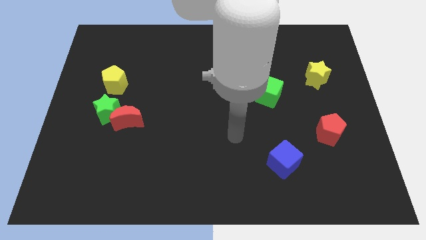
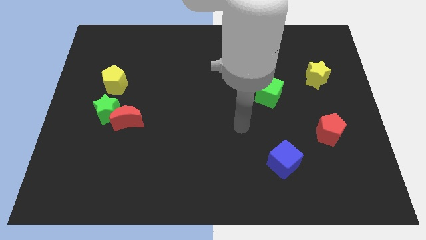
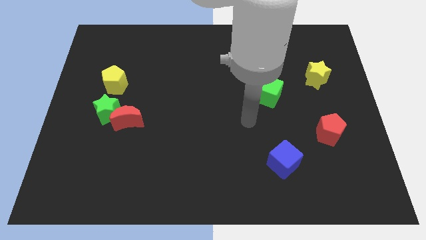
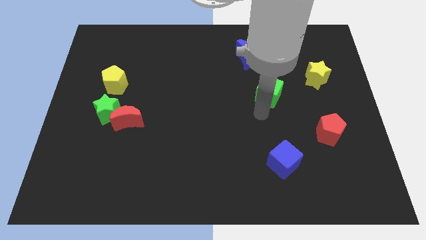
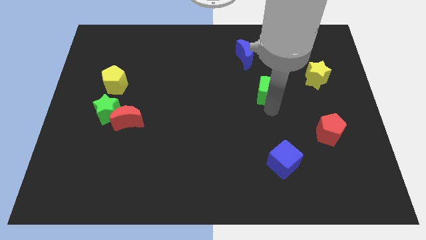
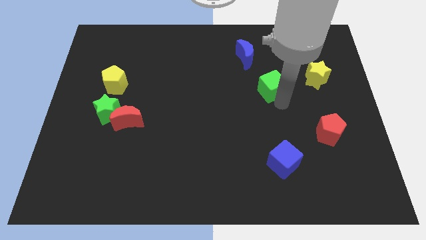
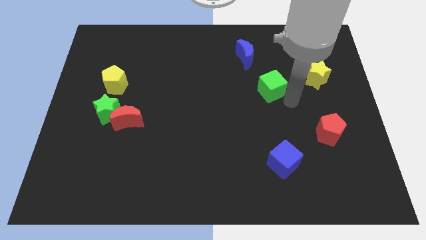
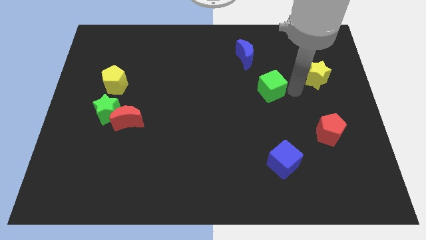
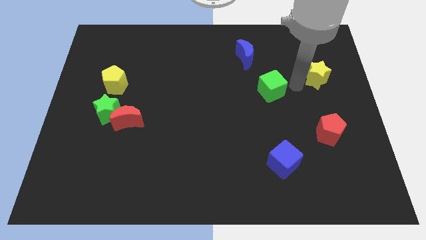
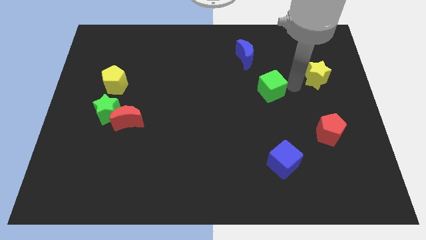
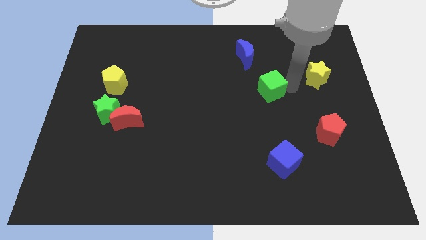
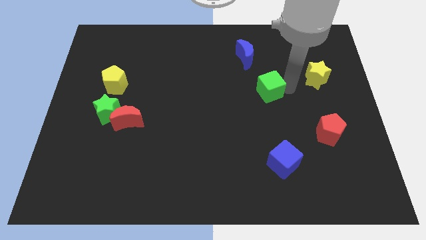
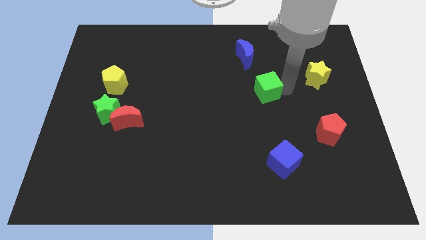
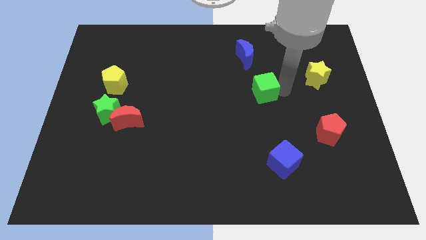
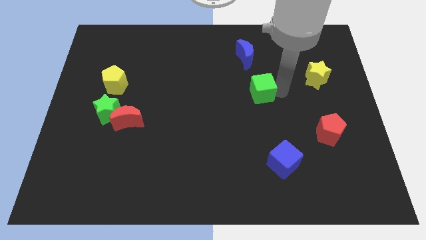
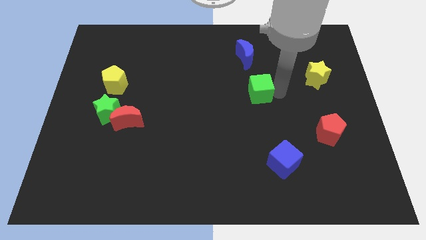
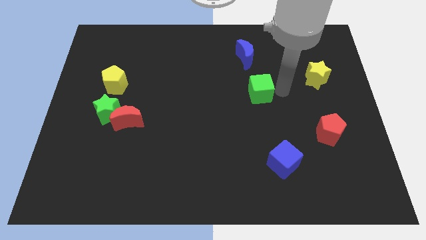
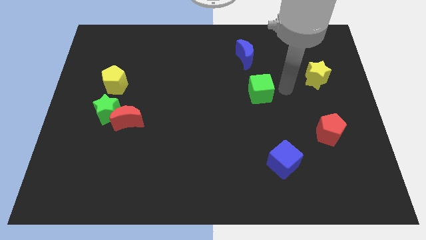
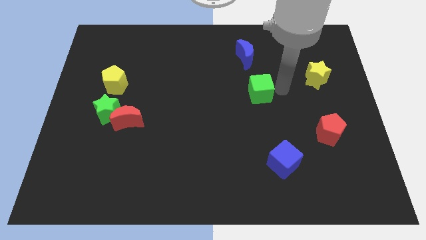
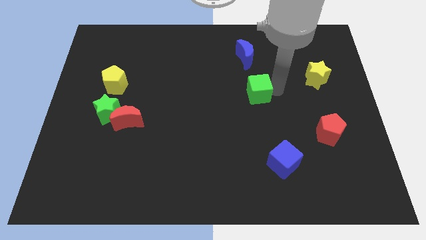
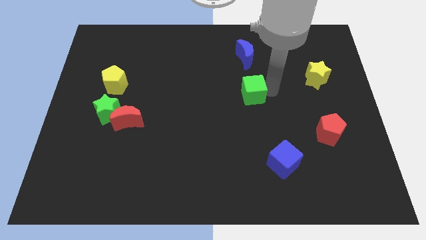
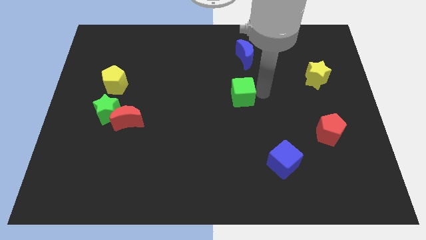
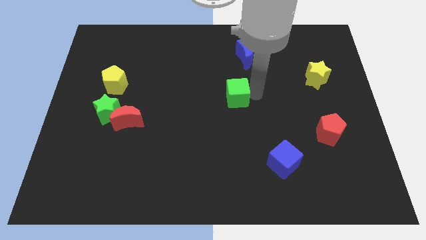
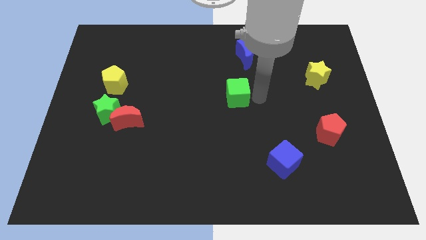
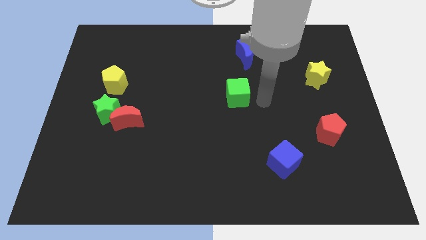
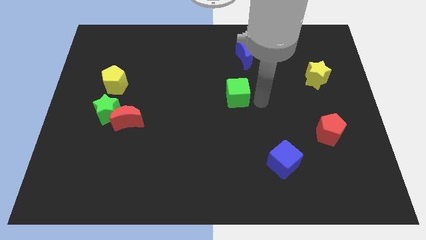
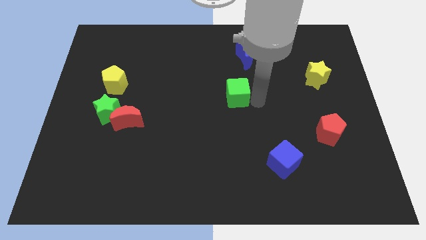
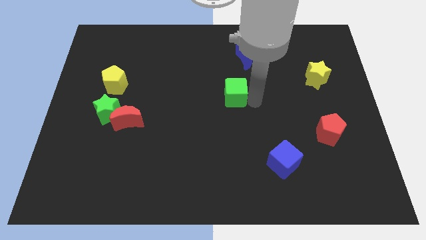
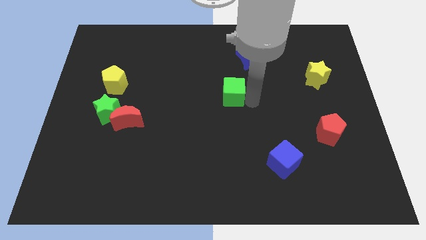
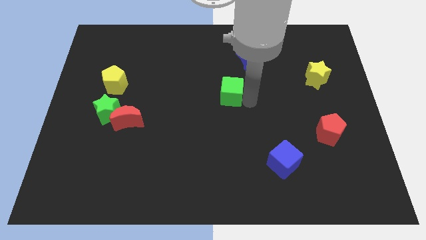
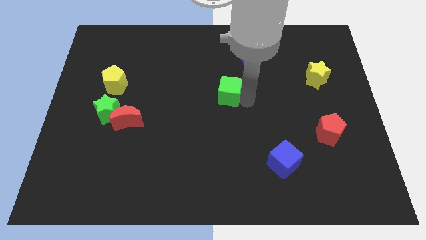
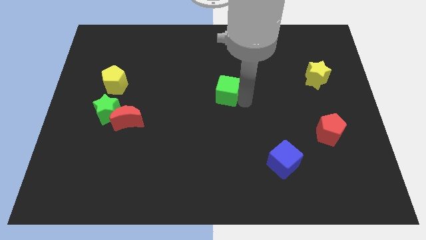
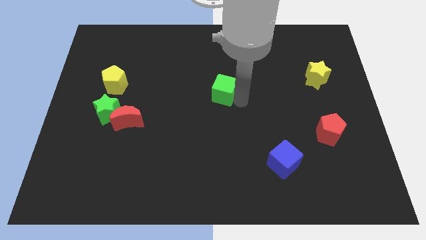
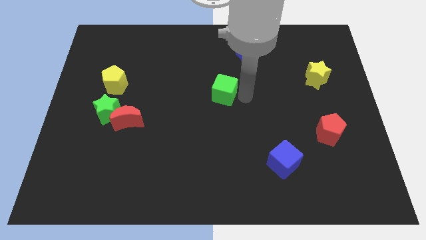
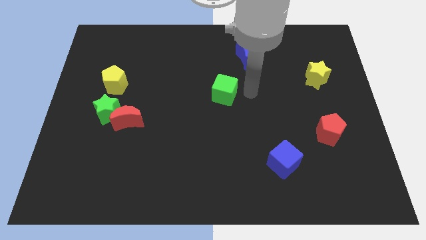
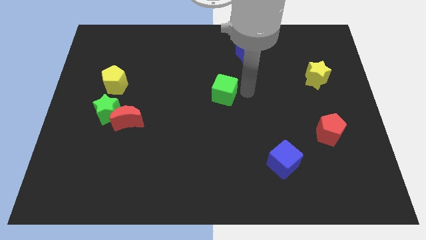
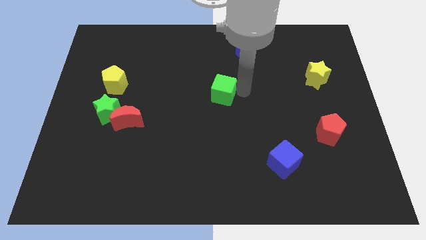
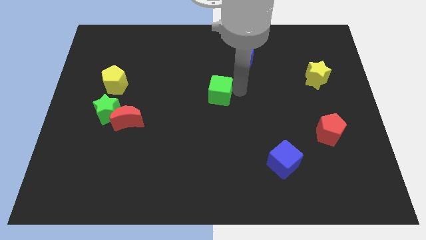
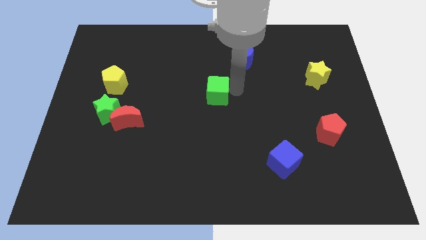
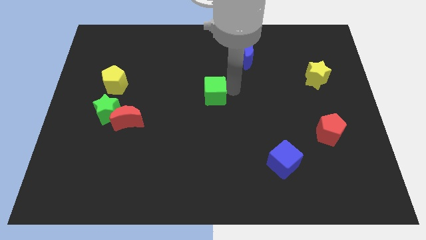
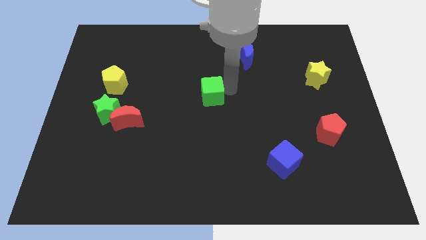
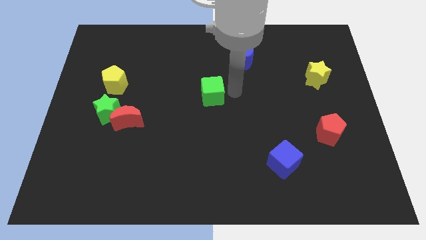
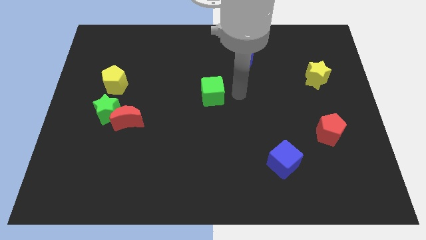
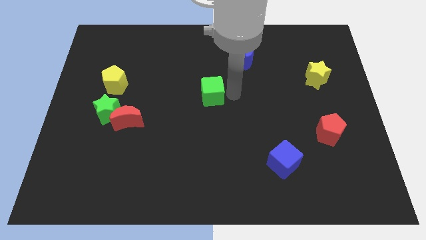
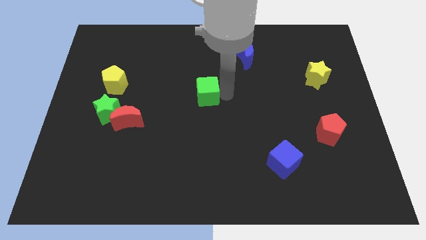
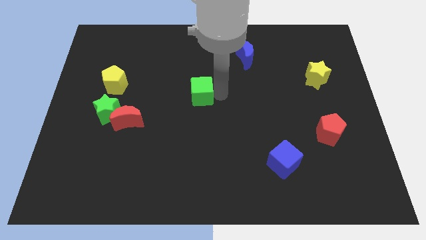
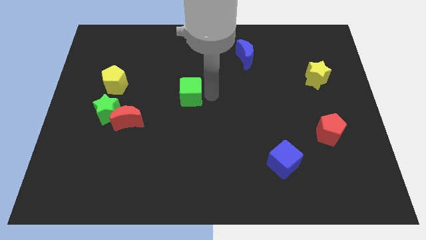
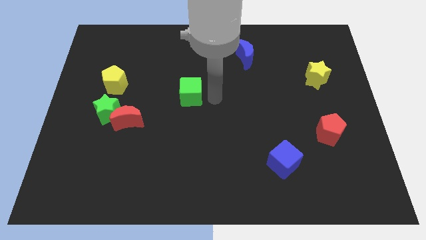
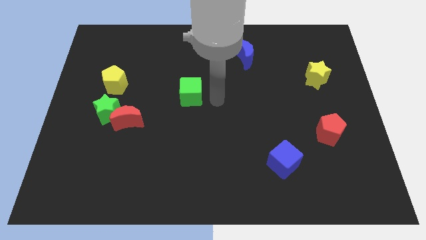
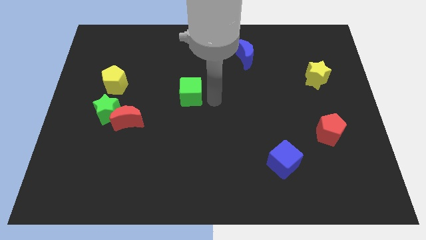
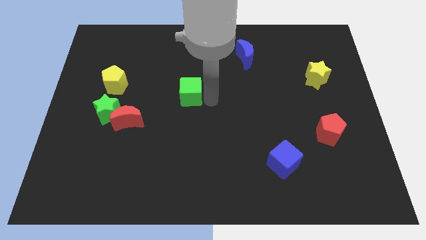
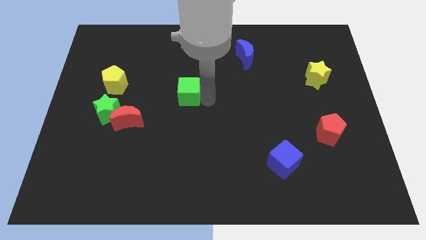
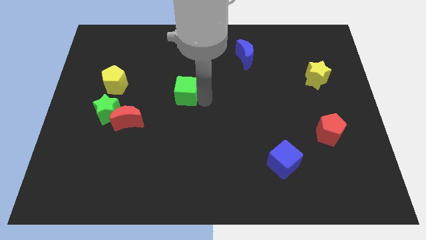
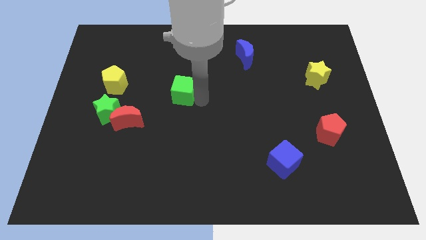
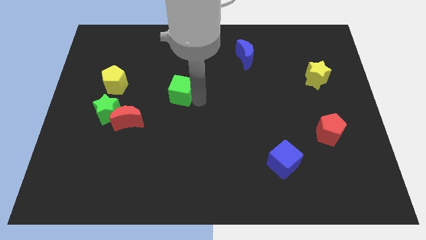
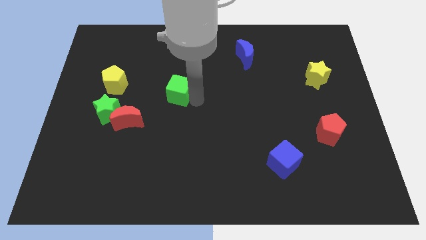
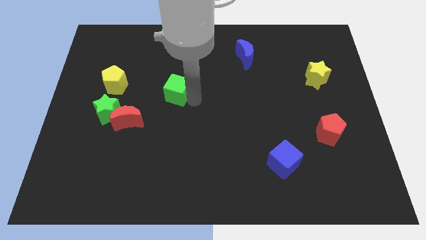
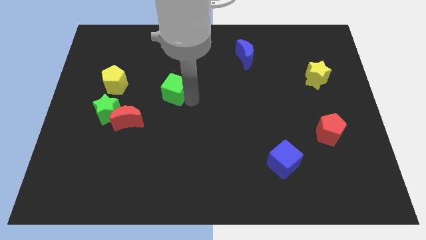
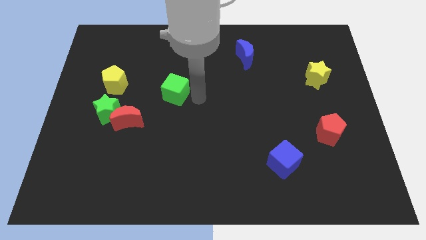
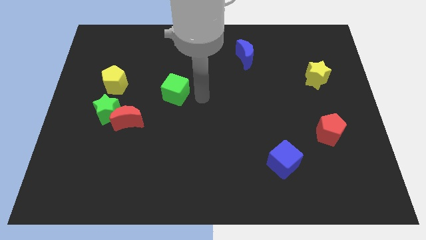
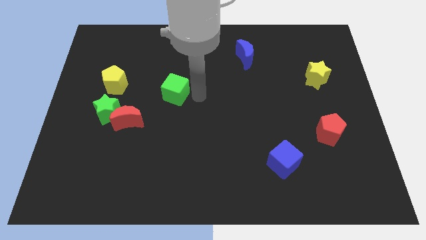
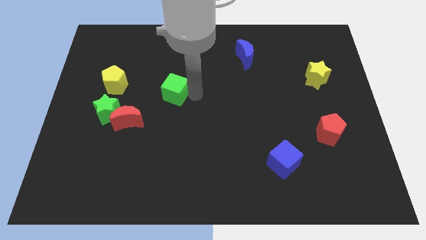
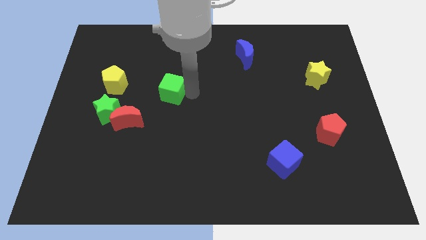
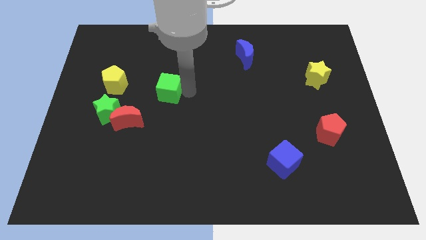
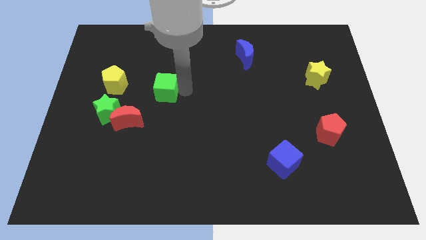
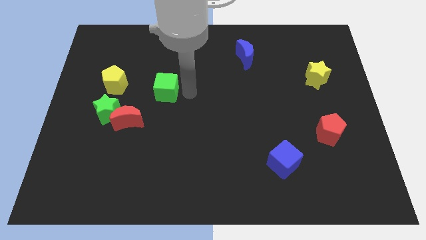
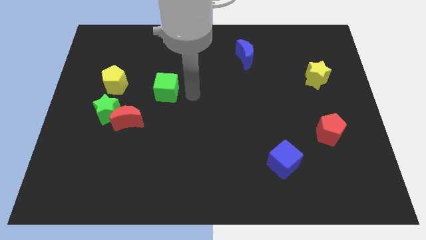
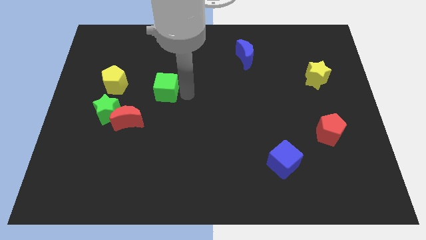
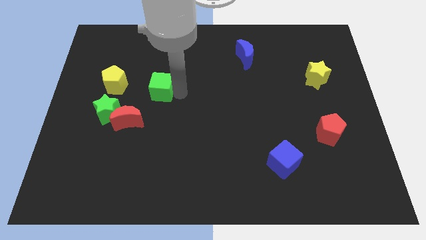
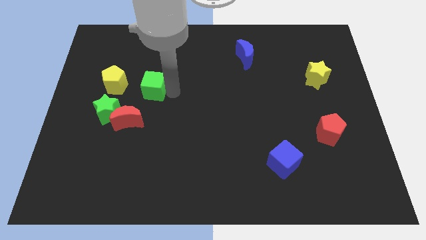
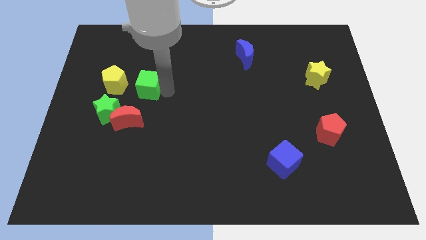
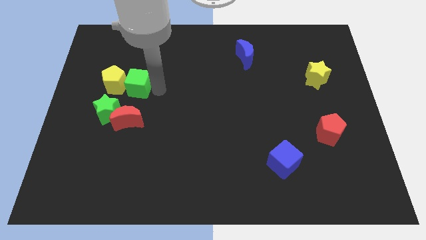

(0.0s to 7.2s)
put the green cube towards the yellow pentagon
